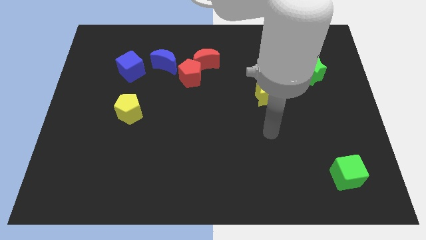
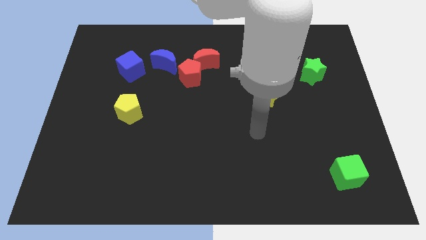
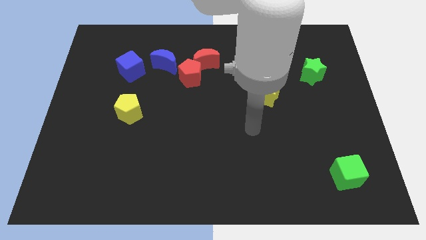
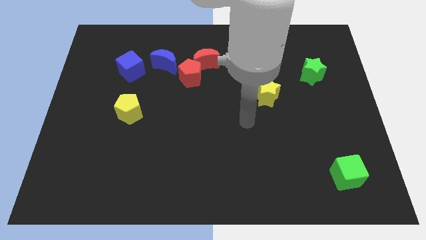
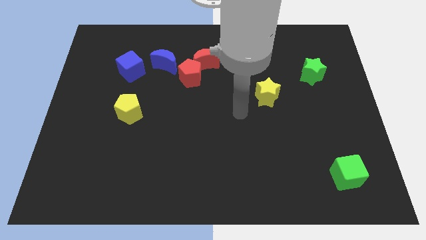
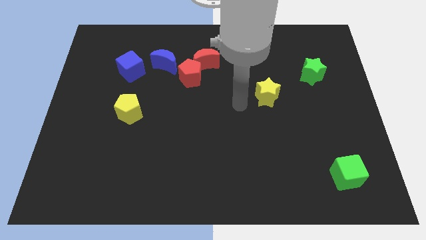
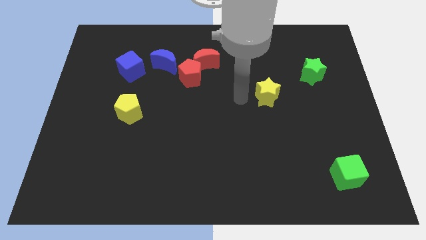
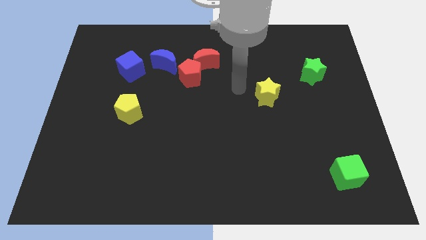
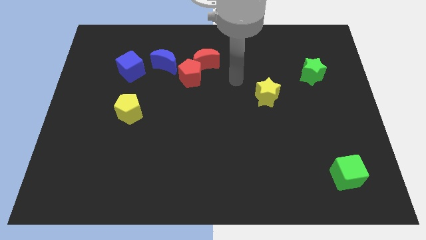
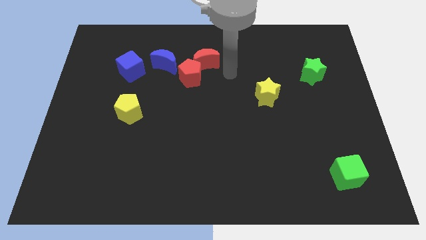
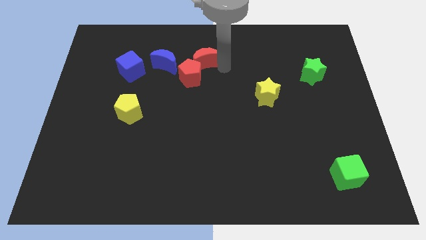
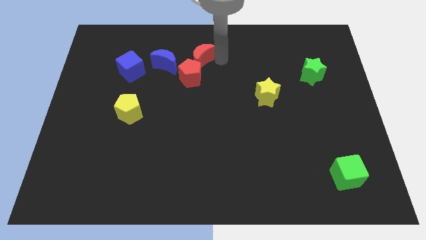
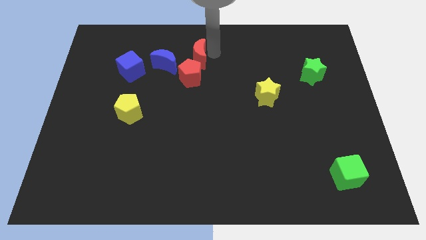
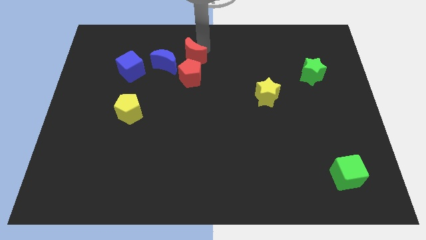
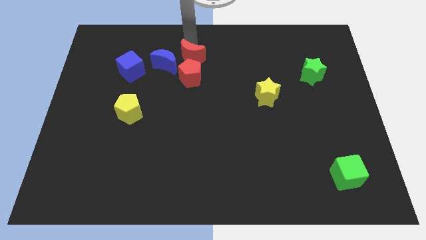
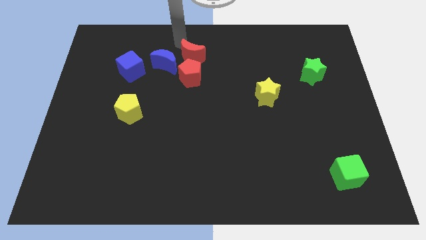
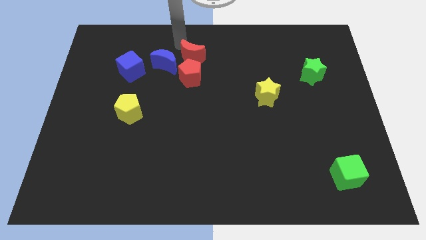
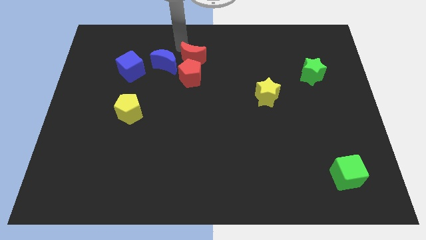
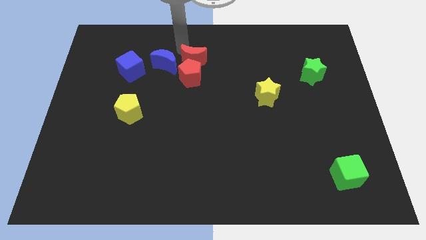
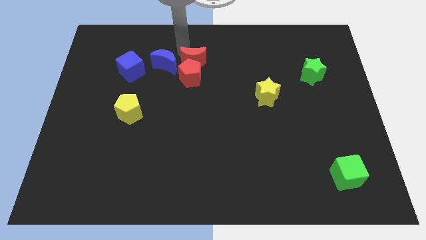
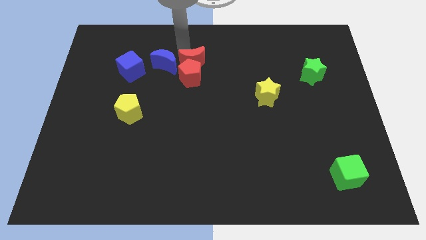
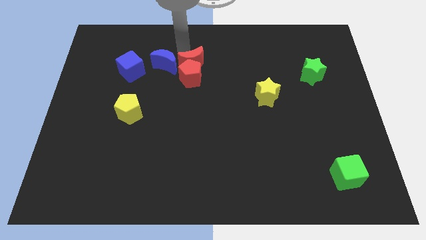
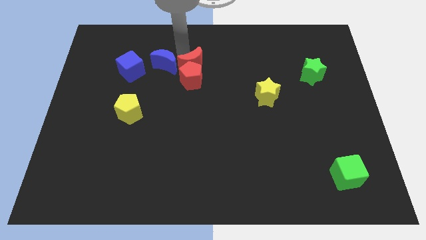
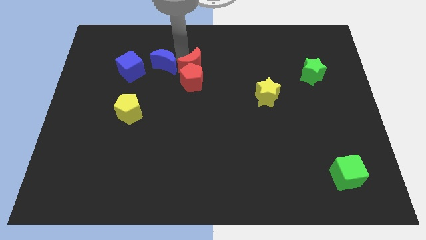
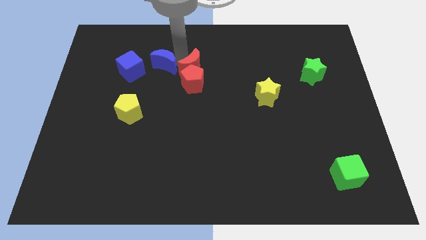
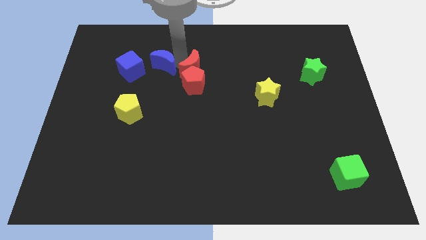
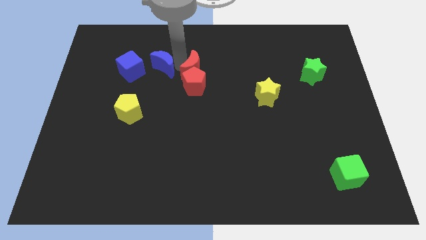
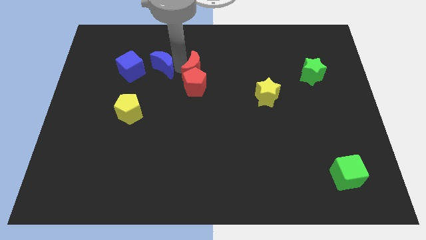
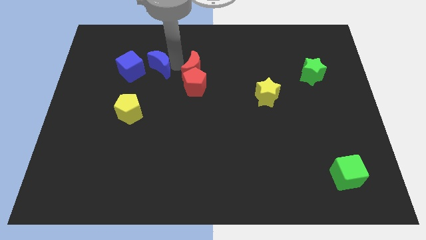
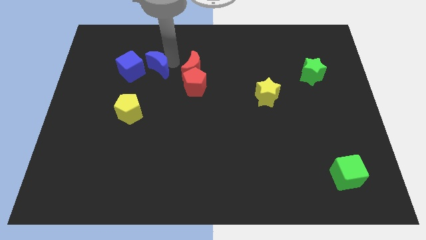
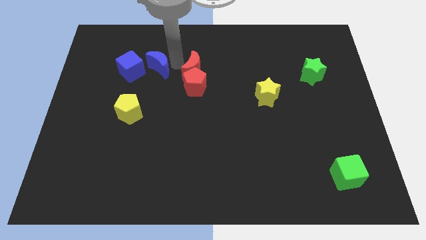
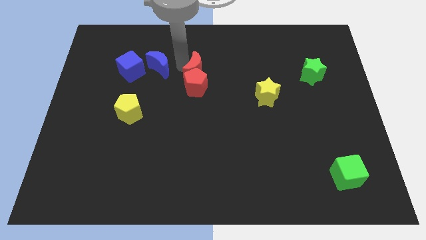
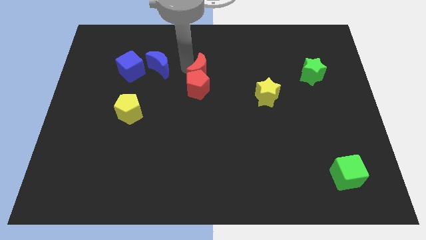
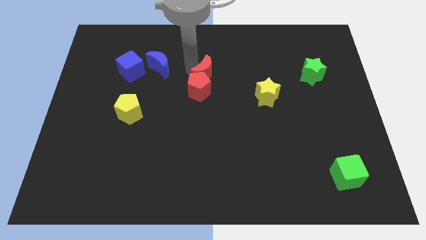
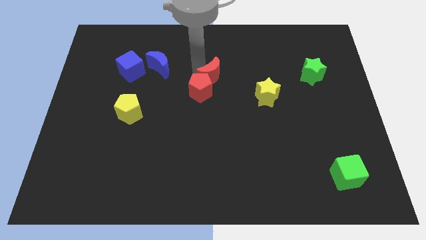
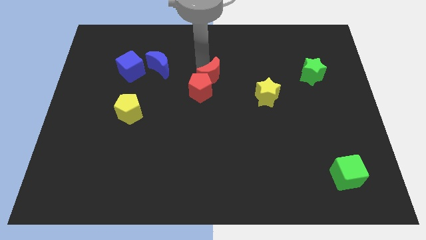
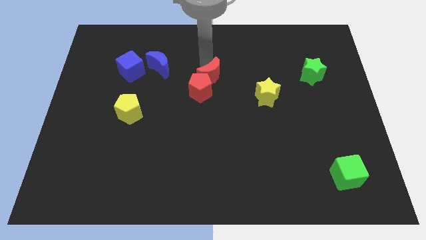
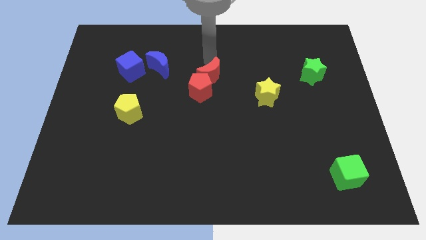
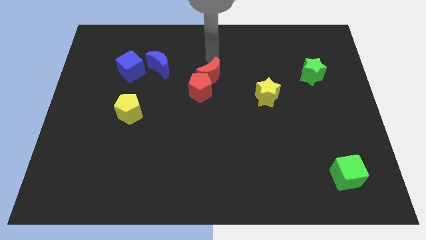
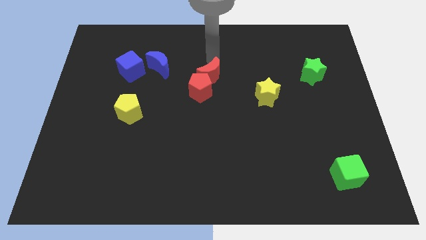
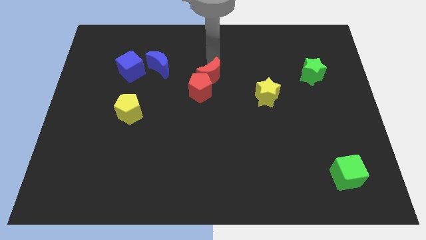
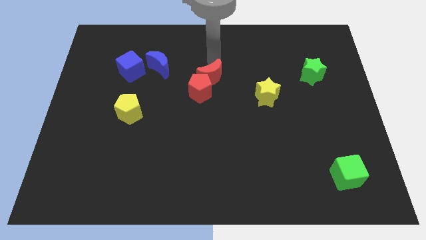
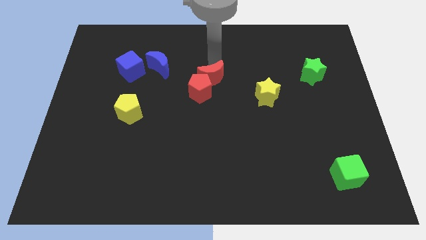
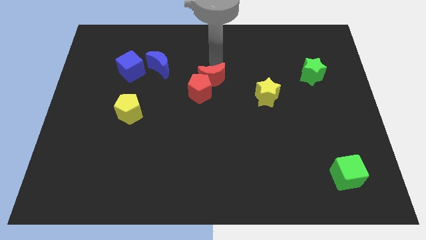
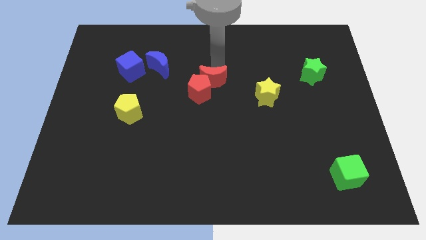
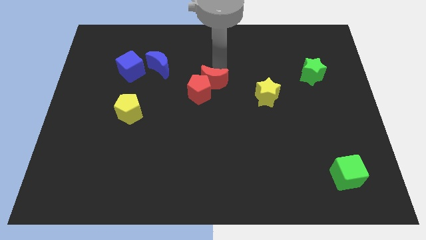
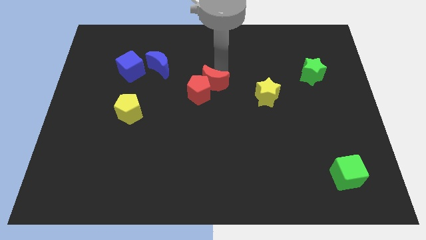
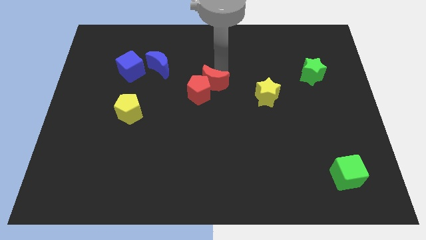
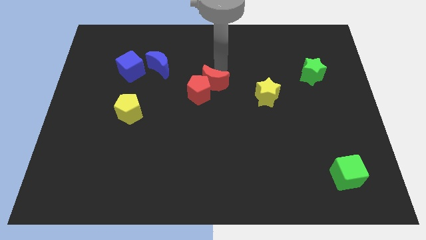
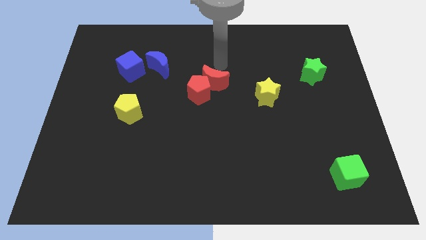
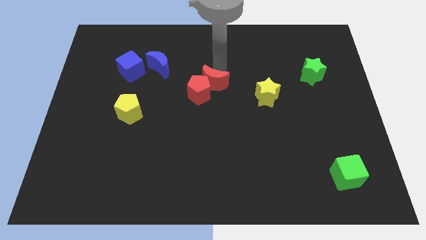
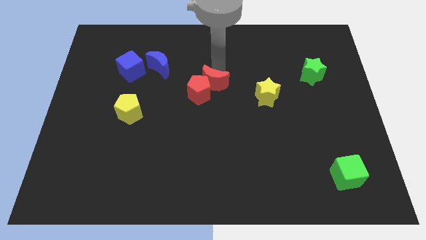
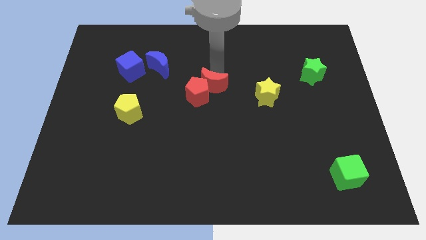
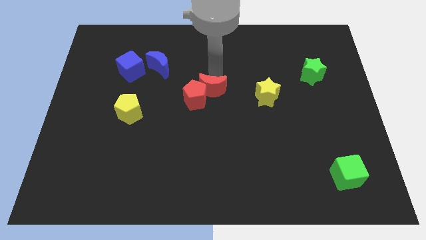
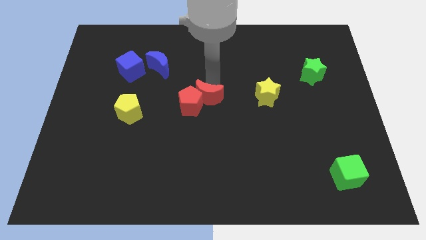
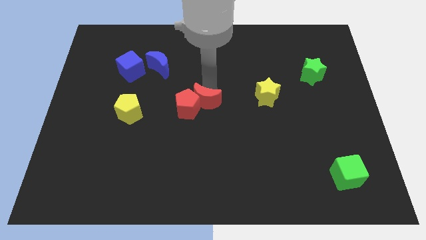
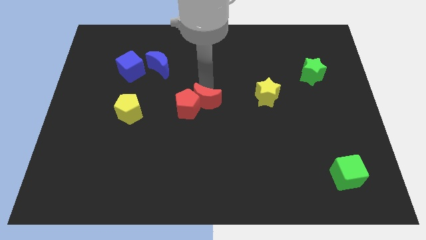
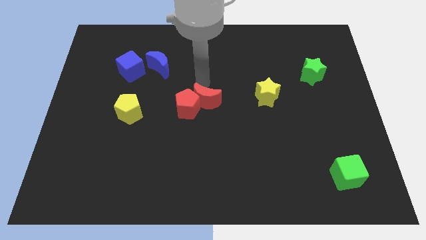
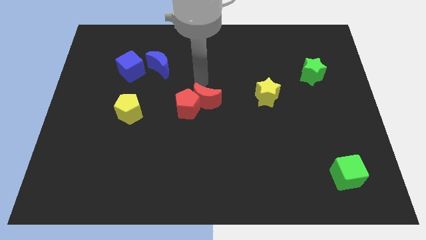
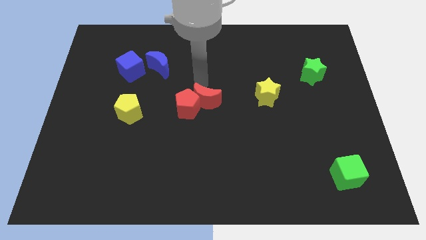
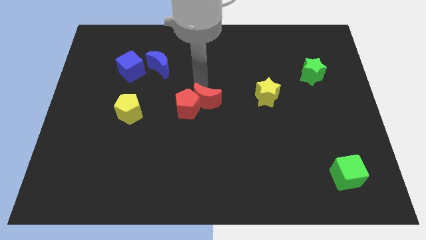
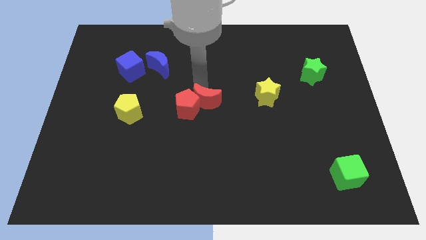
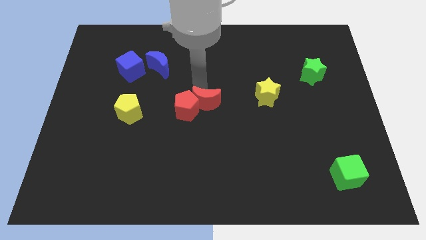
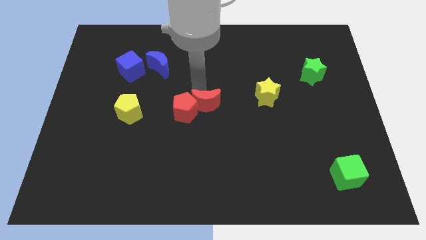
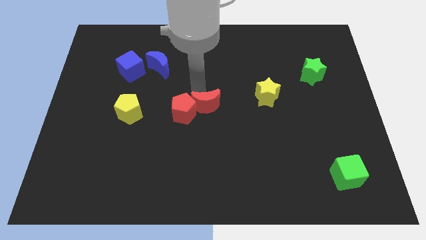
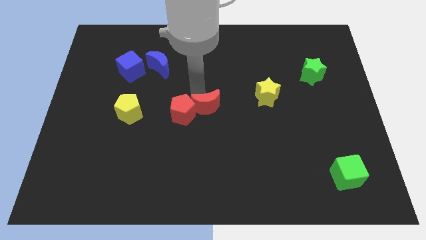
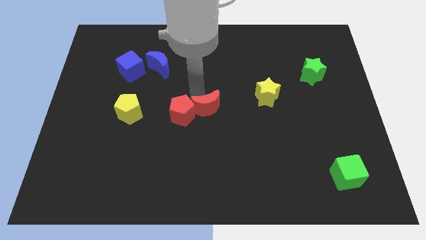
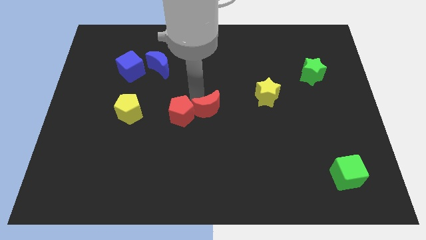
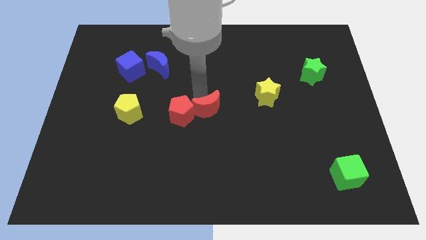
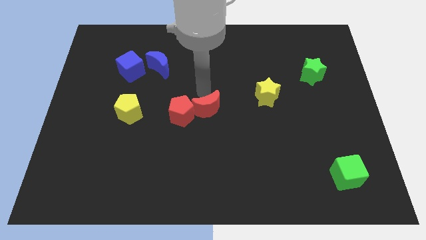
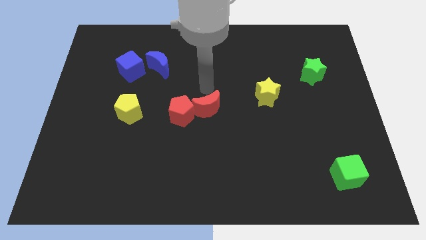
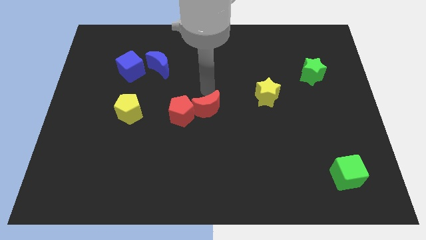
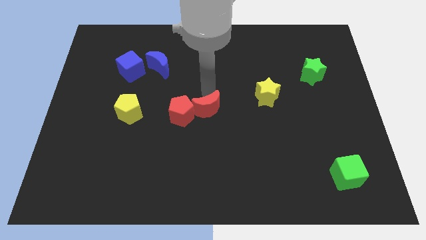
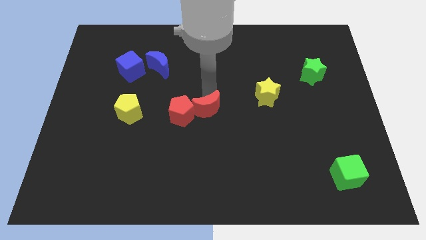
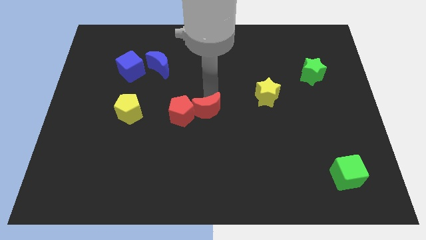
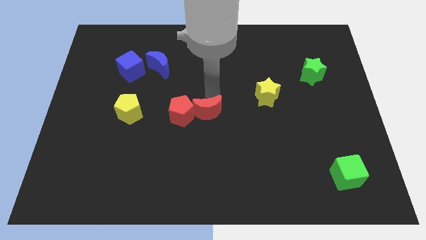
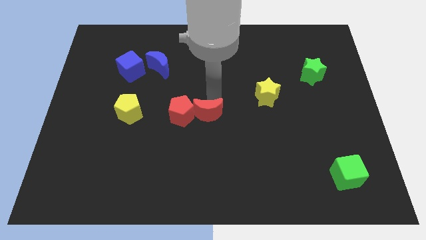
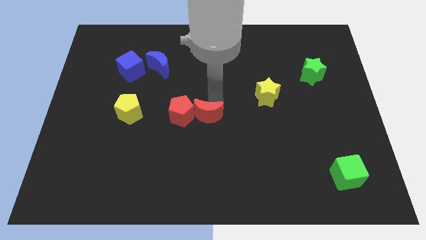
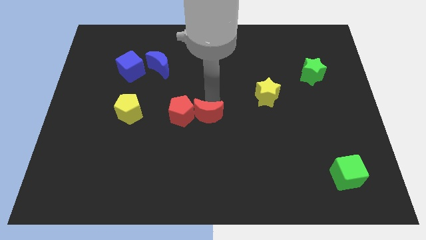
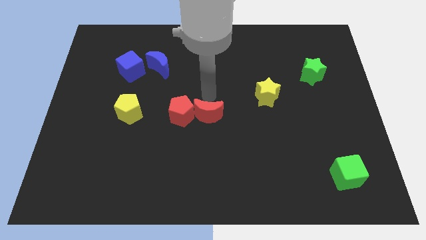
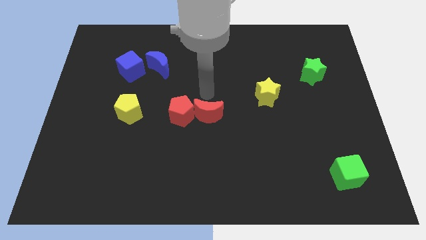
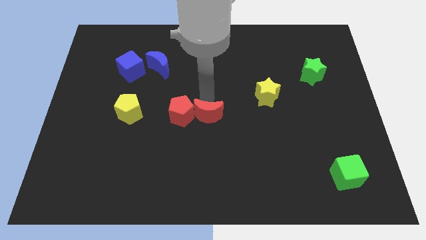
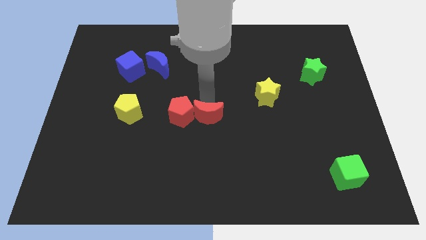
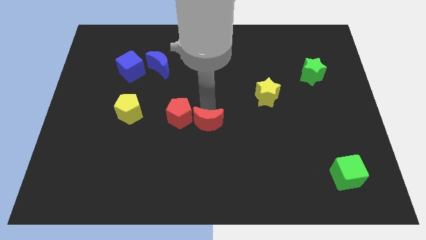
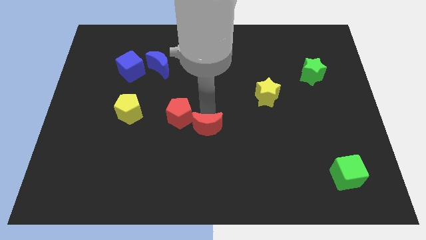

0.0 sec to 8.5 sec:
push the red moon down

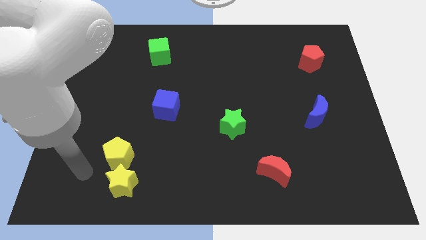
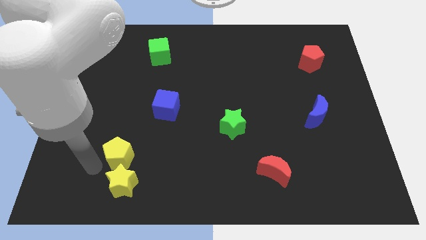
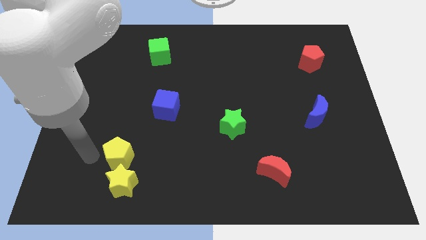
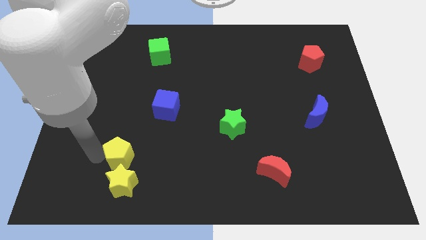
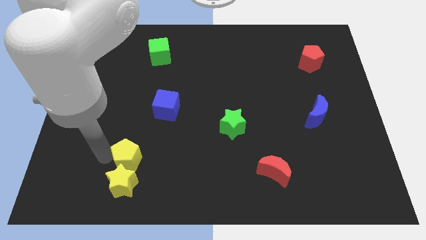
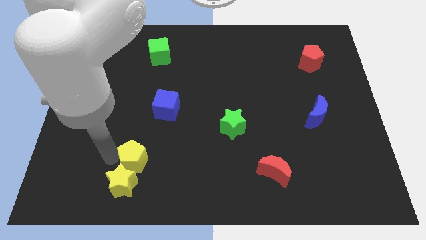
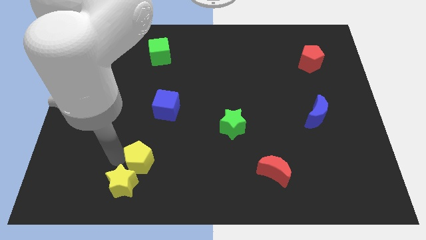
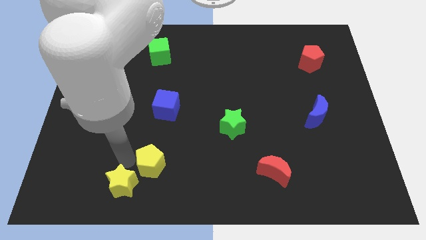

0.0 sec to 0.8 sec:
slightly move the yellow pentagon to the right
